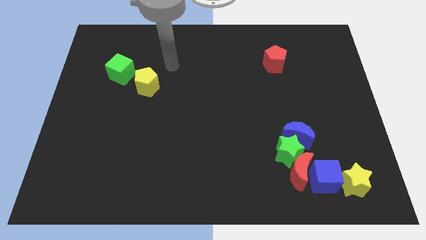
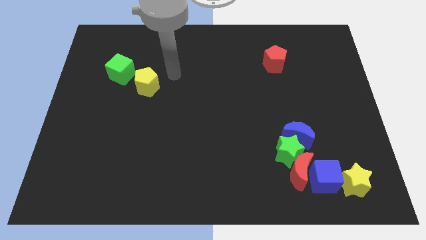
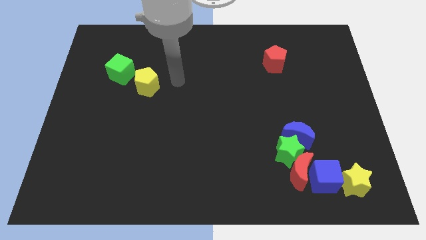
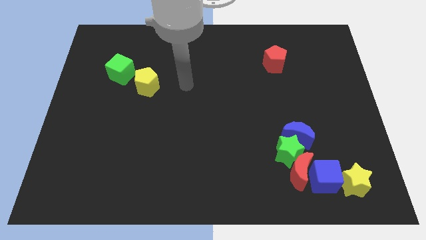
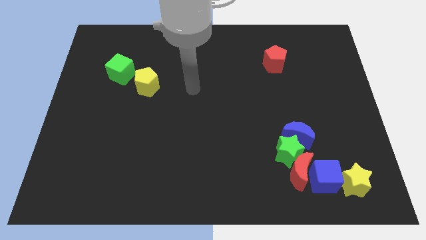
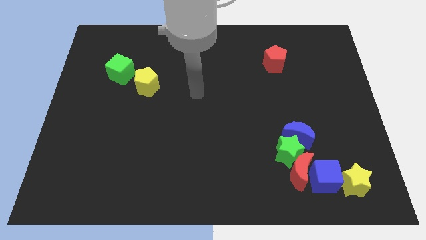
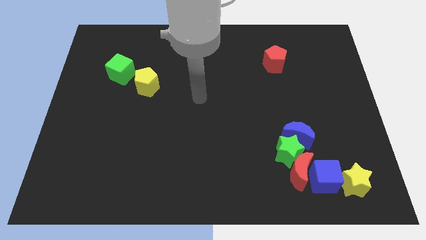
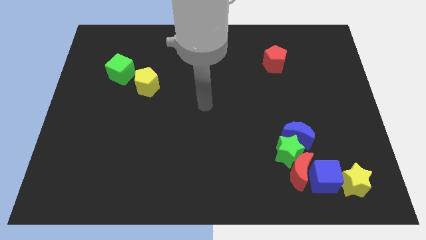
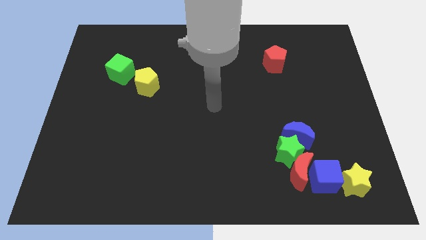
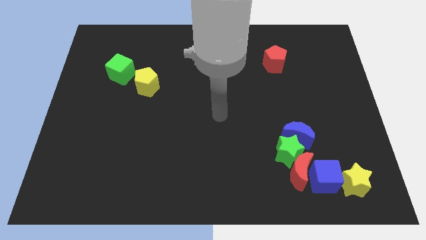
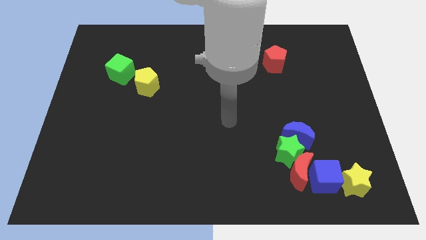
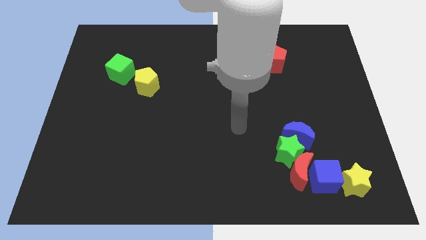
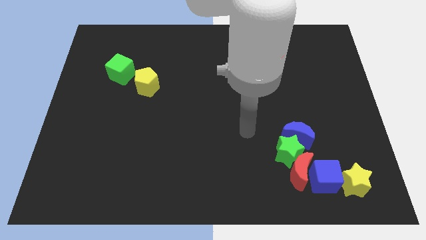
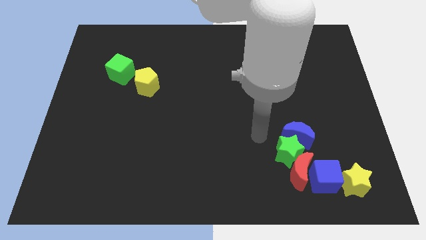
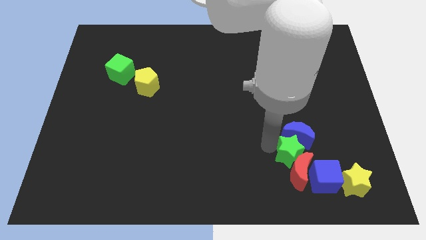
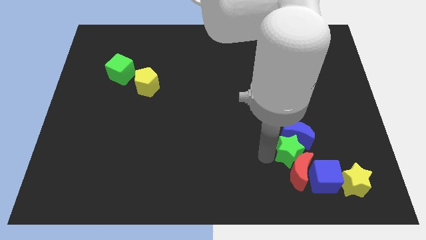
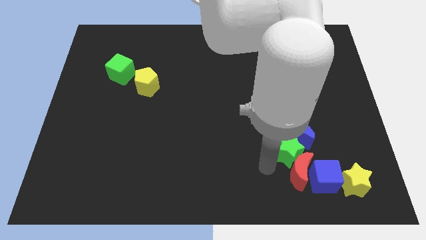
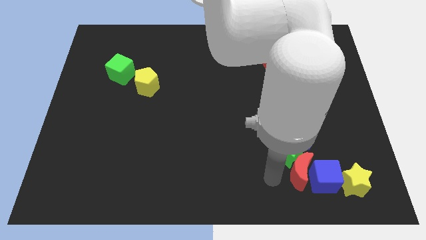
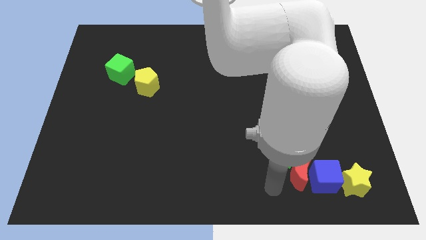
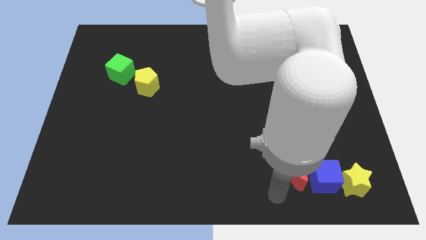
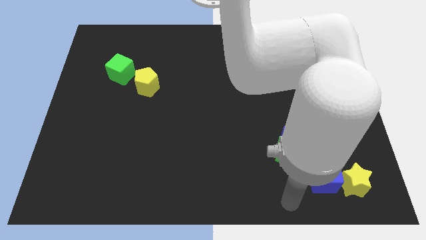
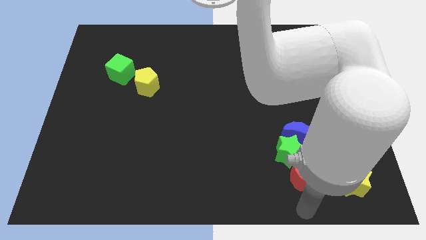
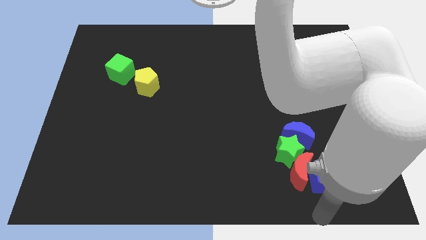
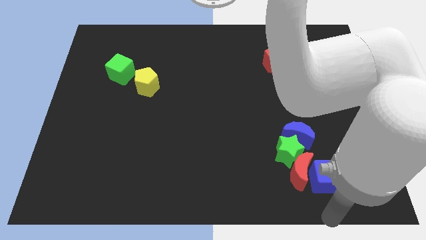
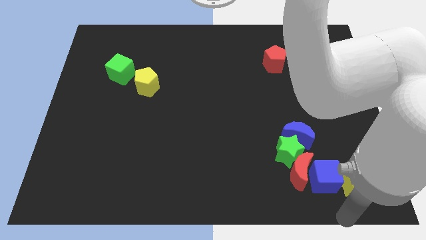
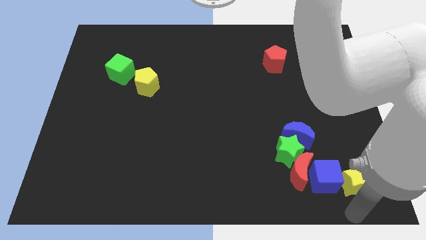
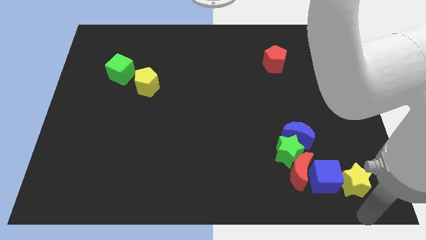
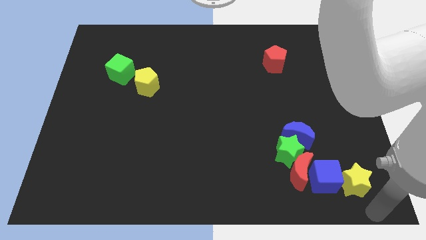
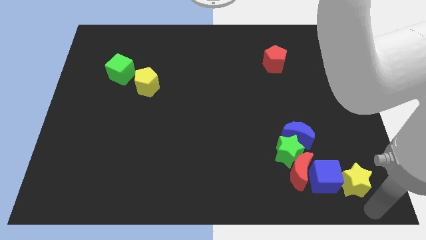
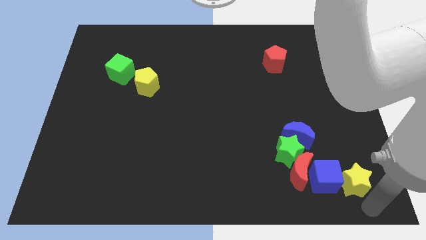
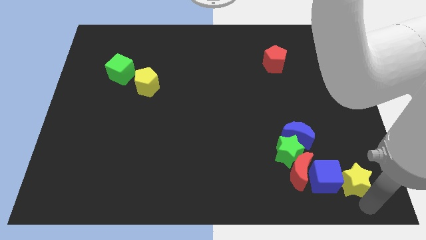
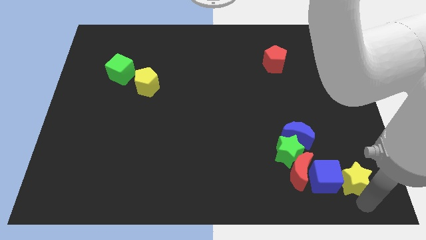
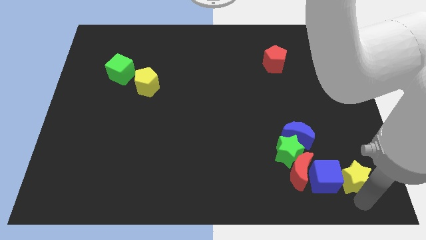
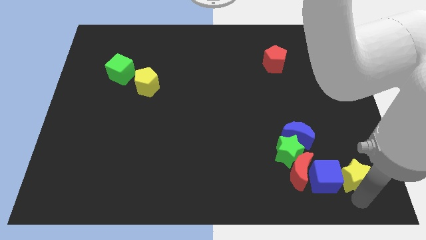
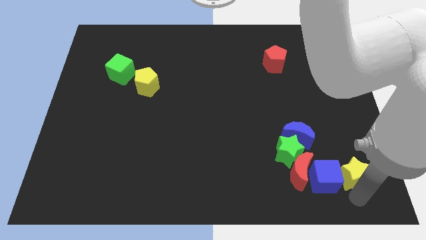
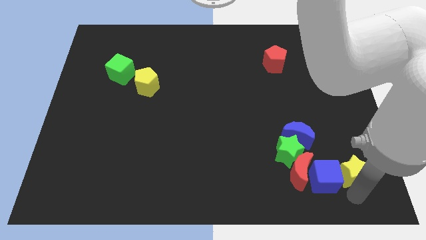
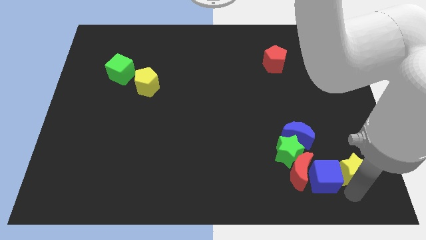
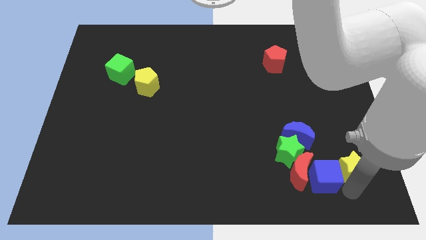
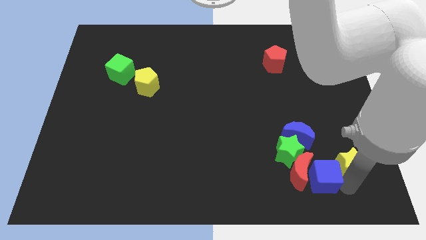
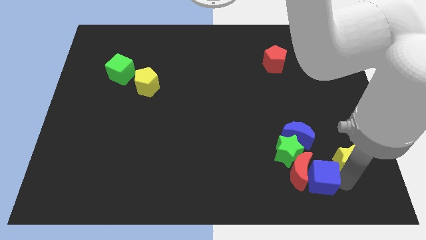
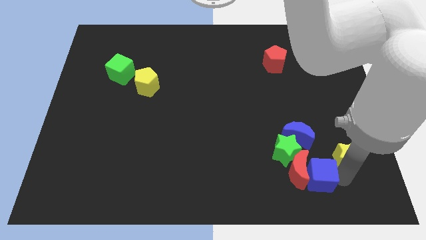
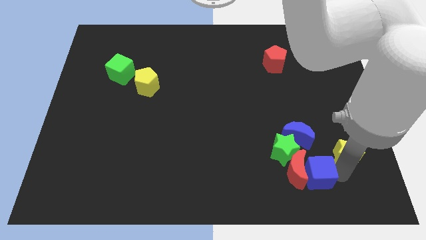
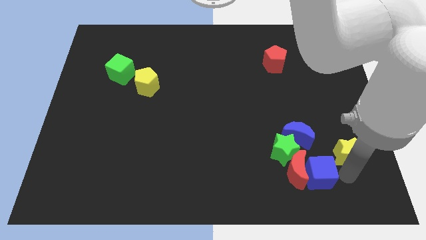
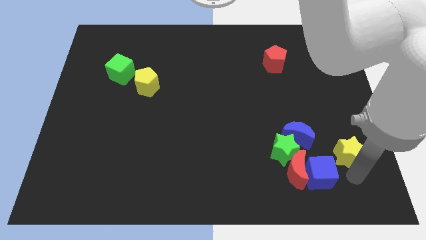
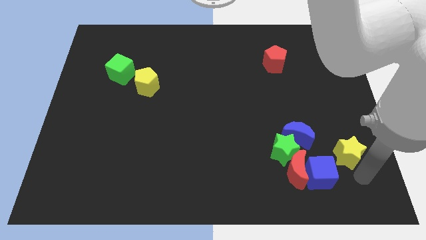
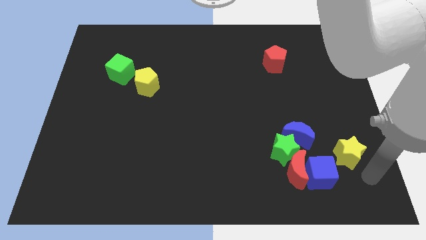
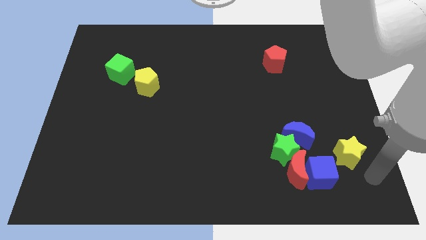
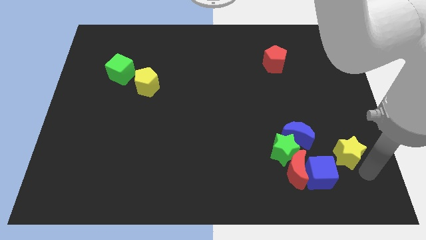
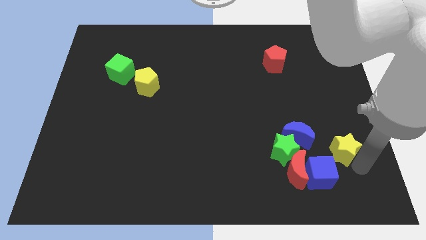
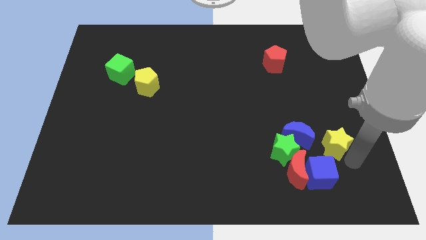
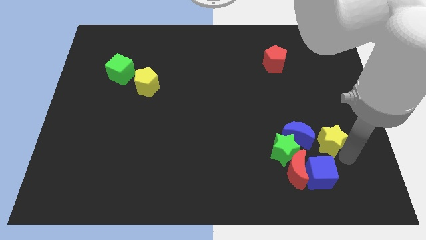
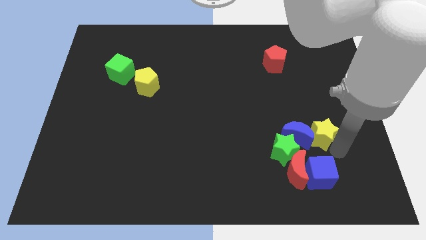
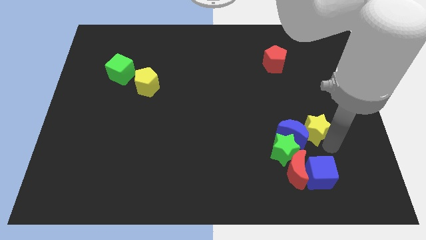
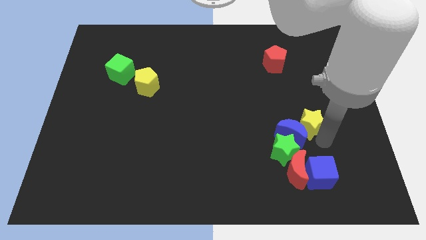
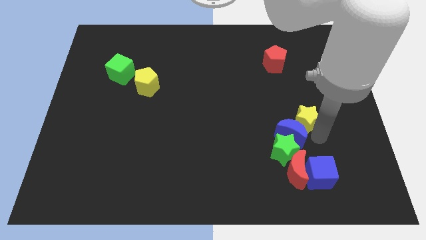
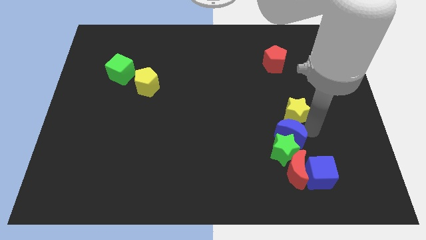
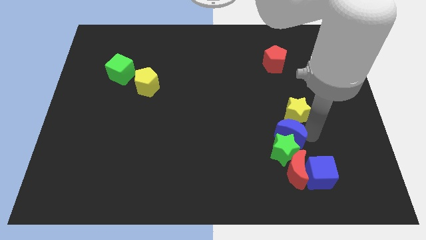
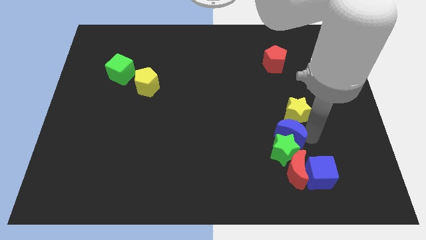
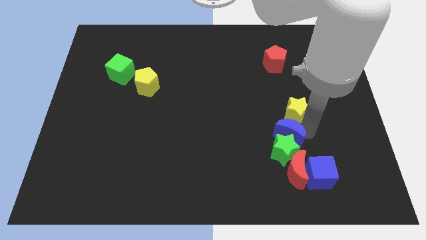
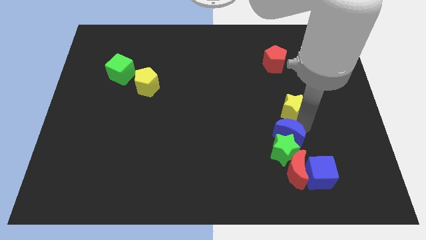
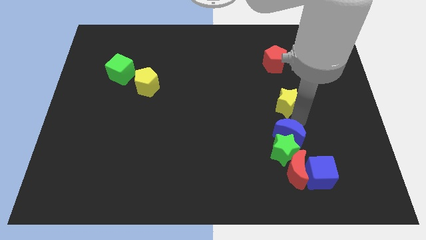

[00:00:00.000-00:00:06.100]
move the yellow star to the bottom side of the red pentagon

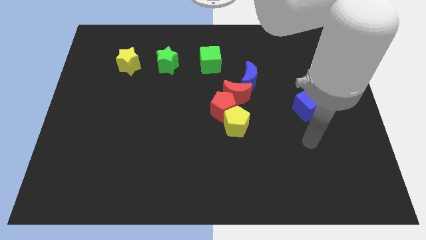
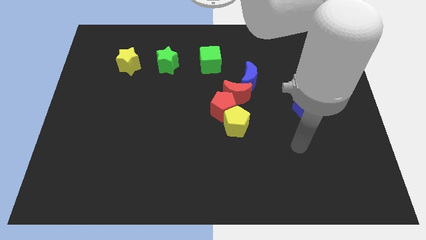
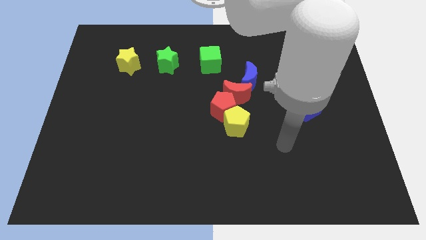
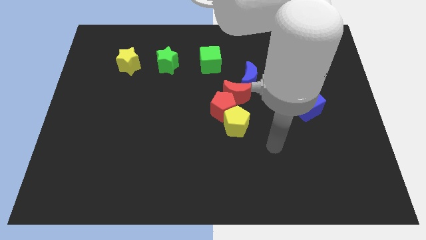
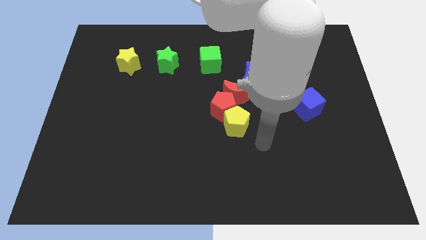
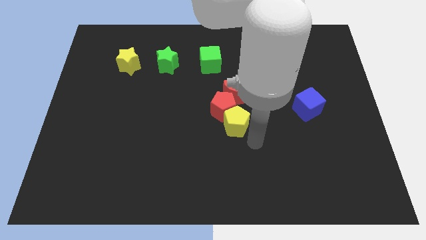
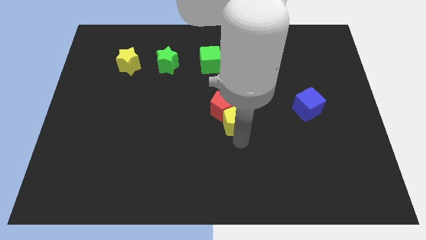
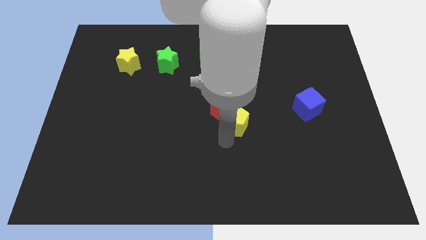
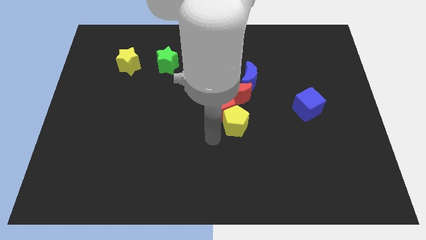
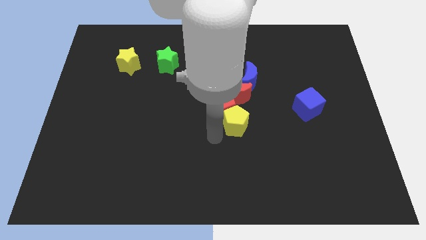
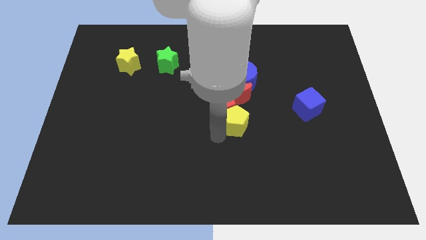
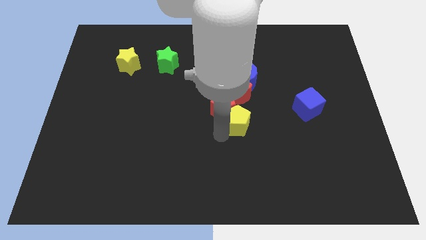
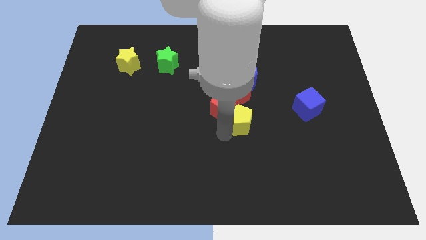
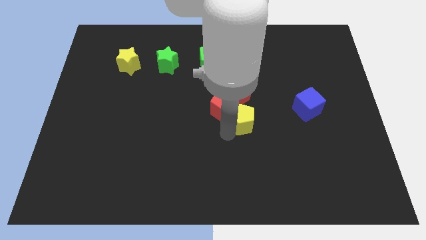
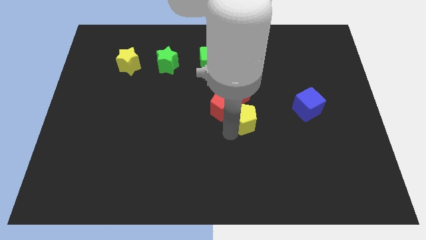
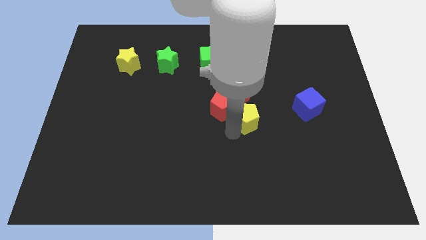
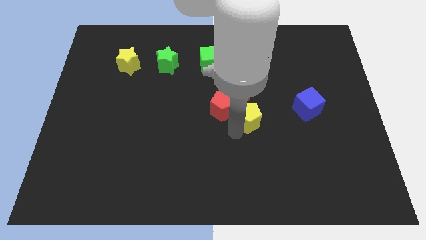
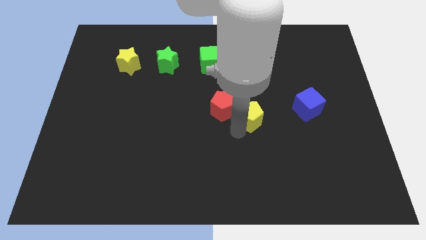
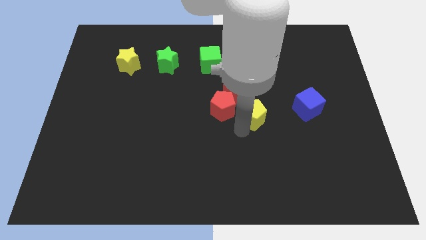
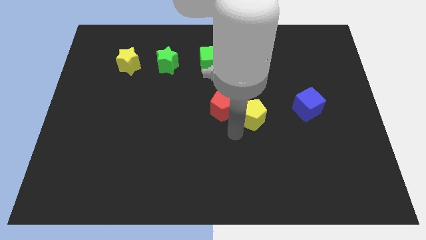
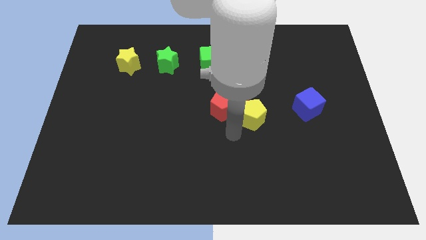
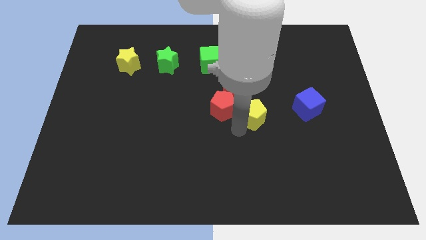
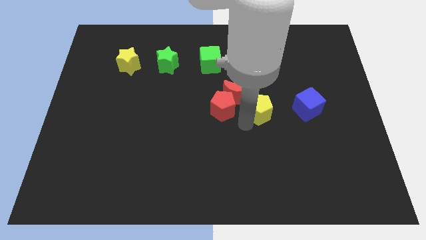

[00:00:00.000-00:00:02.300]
move the yellow pentagon just right of the red moon
